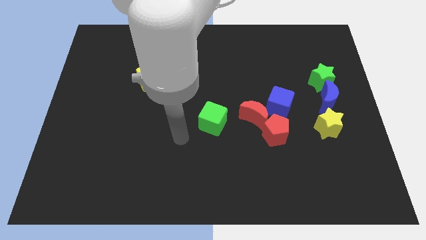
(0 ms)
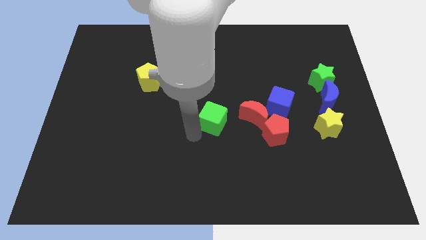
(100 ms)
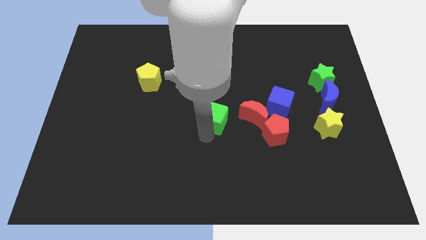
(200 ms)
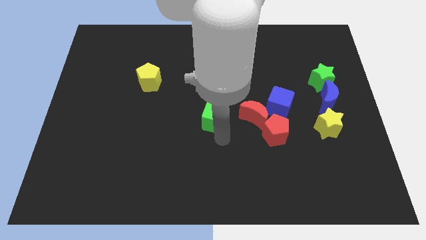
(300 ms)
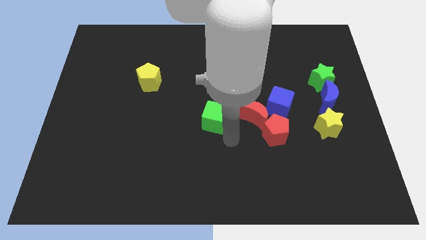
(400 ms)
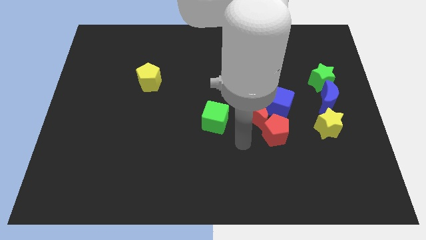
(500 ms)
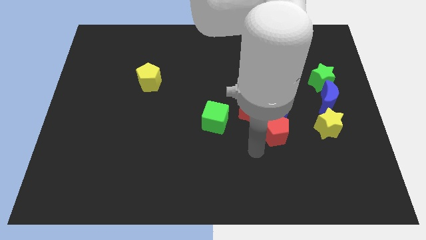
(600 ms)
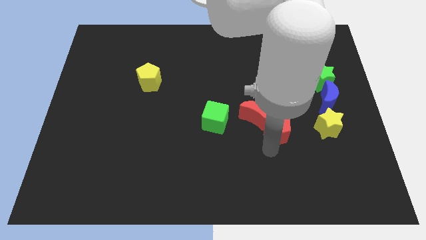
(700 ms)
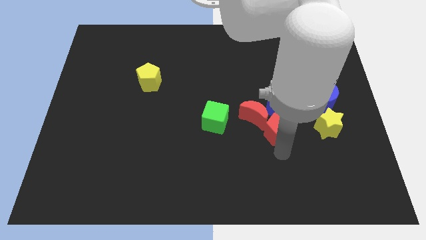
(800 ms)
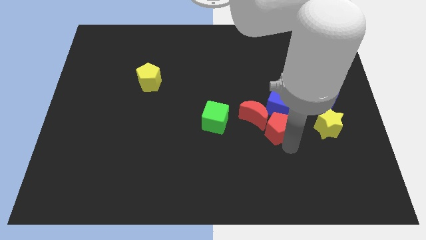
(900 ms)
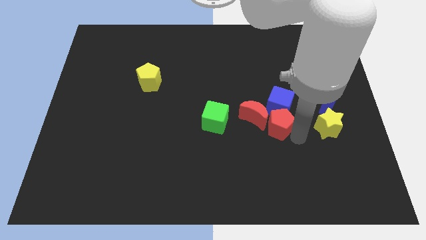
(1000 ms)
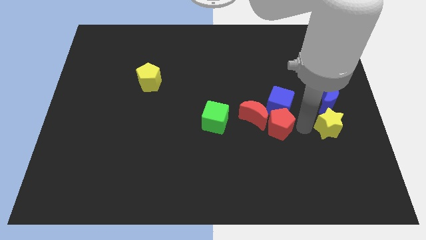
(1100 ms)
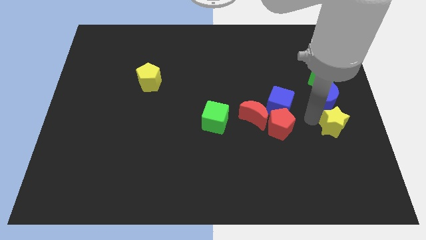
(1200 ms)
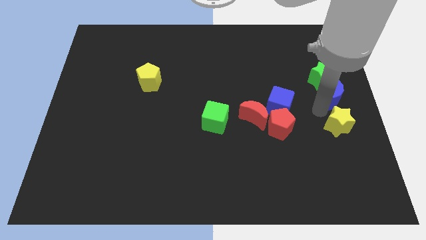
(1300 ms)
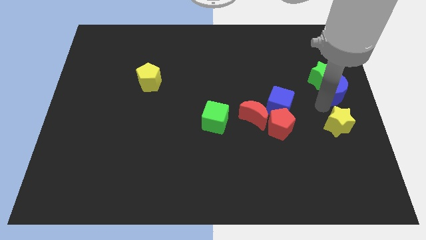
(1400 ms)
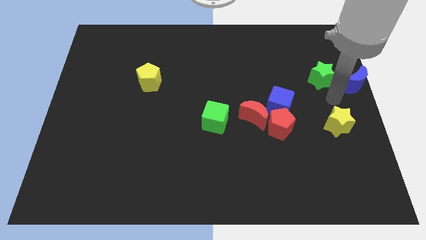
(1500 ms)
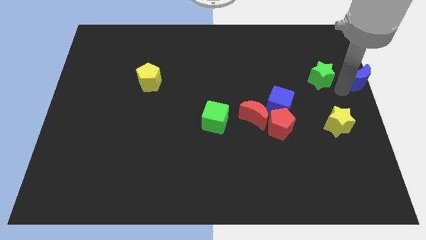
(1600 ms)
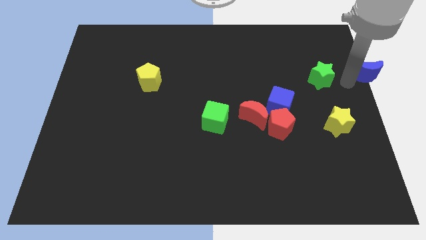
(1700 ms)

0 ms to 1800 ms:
separate the green star from the blue moon

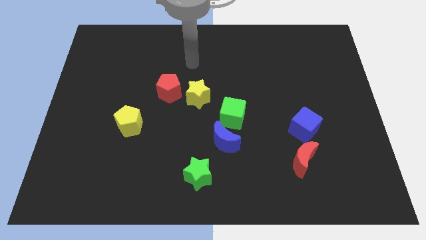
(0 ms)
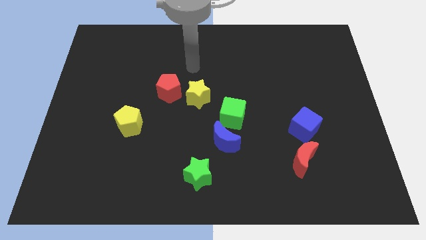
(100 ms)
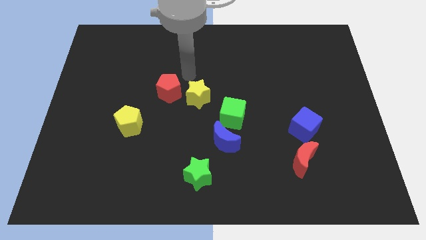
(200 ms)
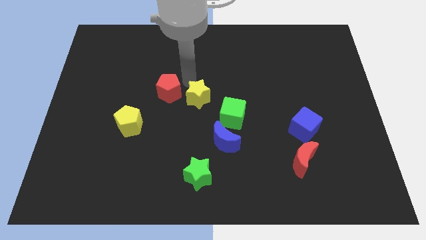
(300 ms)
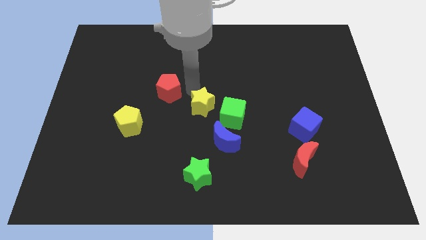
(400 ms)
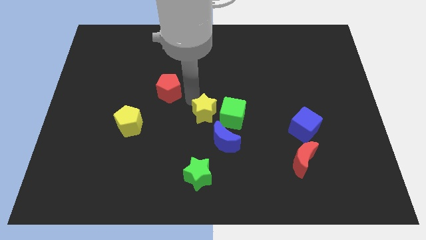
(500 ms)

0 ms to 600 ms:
pull the red pentagon apart from the yellow star

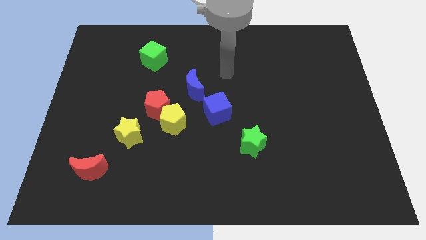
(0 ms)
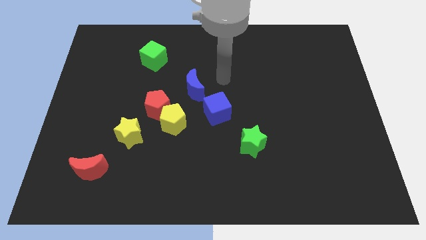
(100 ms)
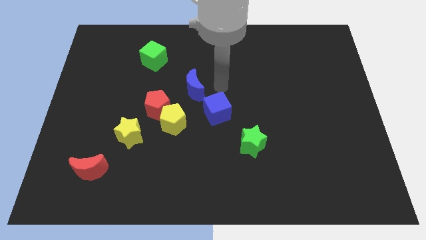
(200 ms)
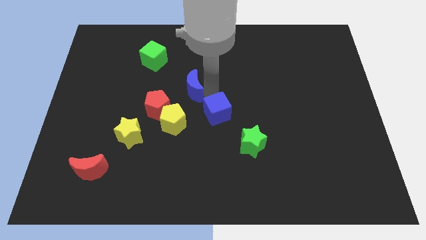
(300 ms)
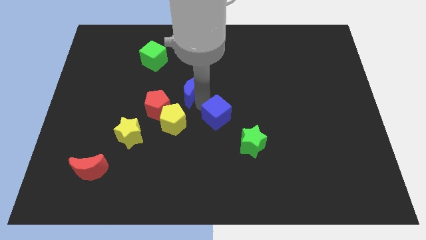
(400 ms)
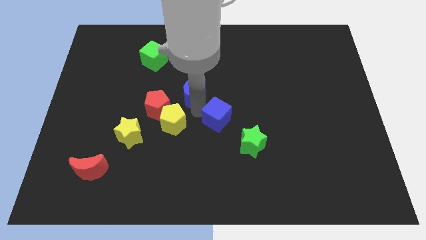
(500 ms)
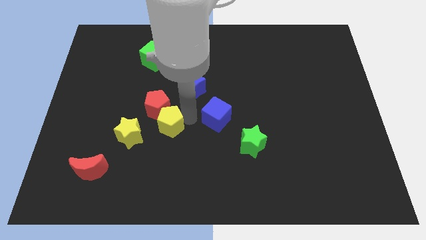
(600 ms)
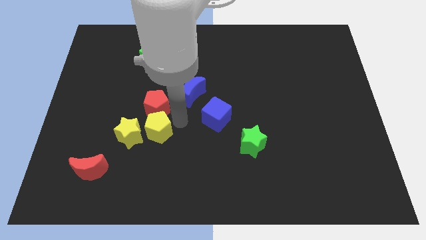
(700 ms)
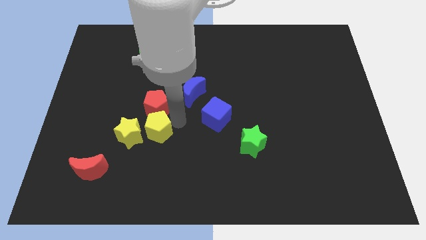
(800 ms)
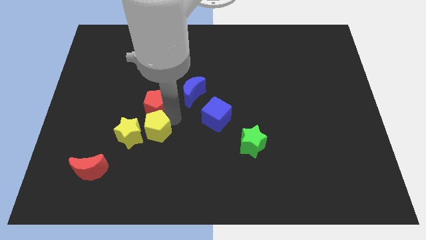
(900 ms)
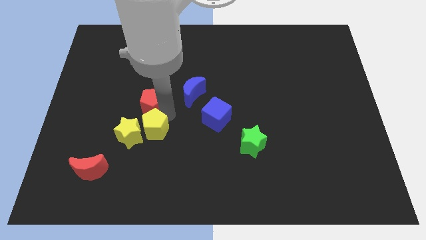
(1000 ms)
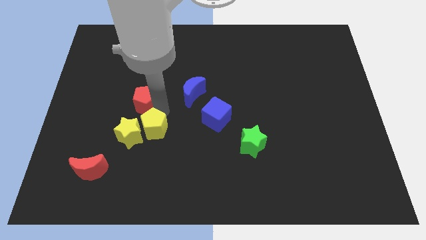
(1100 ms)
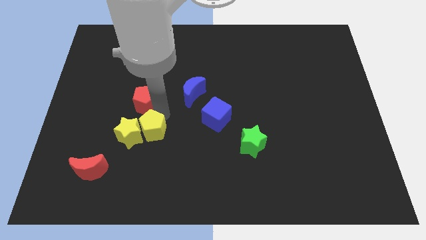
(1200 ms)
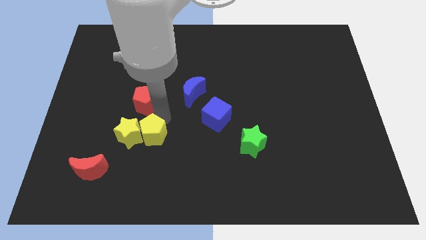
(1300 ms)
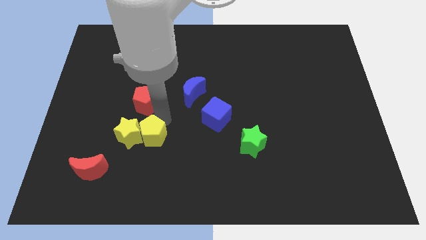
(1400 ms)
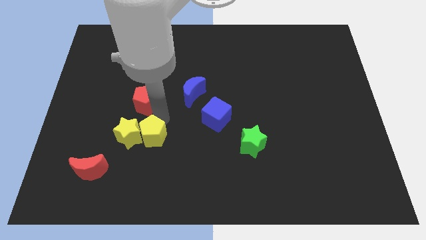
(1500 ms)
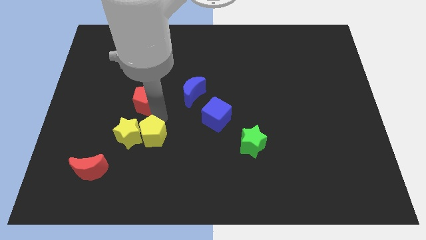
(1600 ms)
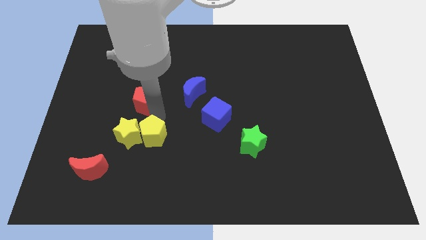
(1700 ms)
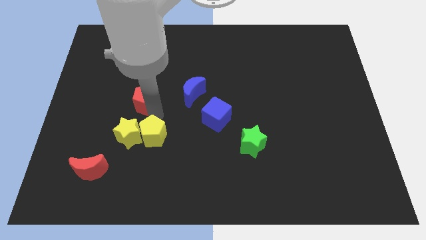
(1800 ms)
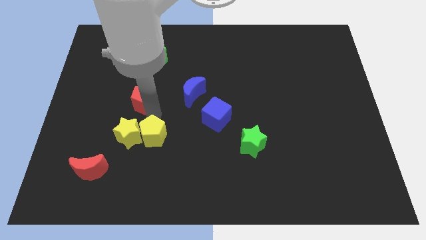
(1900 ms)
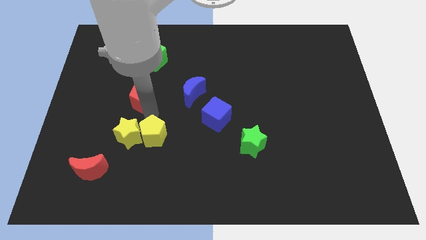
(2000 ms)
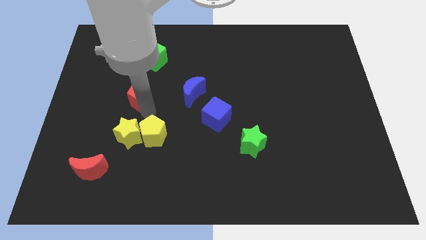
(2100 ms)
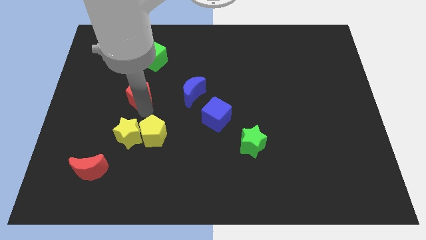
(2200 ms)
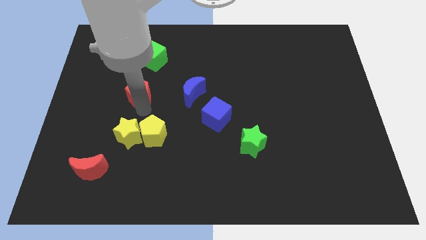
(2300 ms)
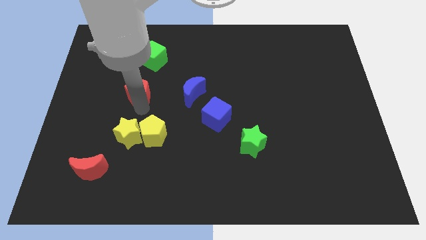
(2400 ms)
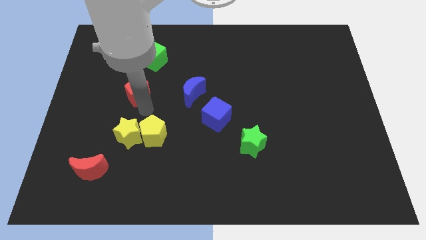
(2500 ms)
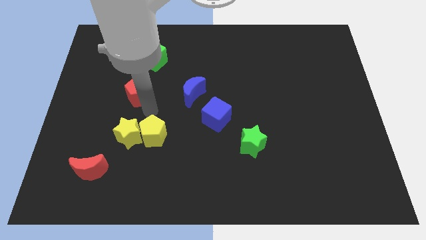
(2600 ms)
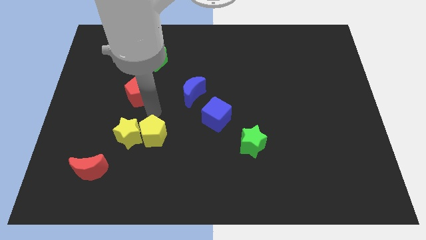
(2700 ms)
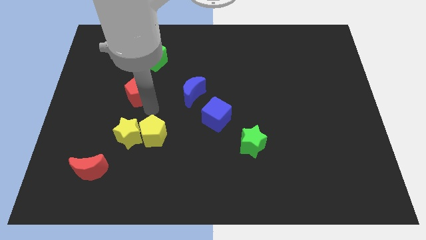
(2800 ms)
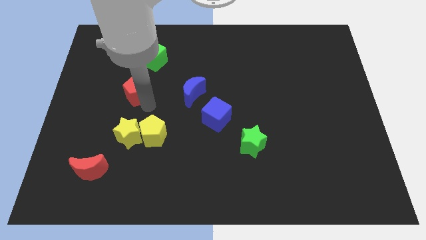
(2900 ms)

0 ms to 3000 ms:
move the red pentagon away from the clump

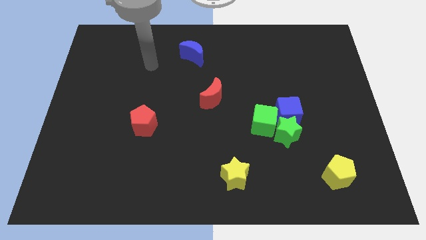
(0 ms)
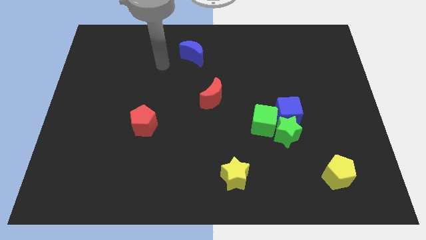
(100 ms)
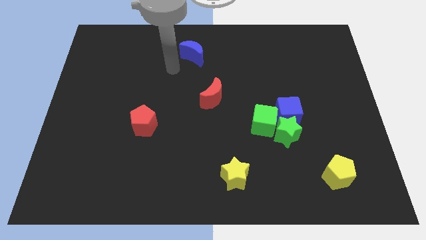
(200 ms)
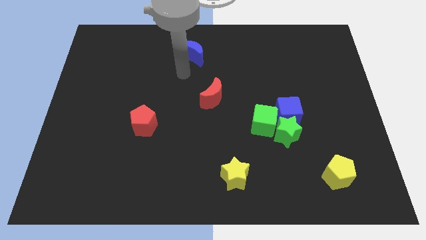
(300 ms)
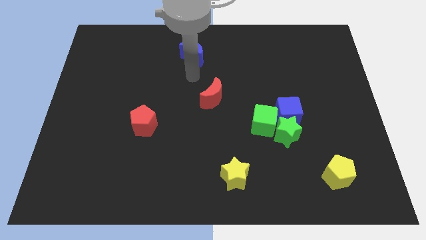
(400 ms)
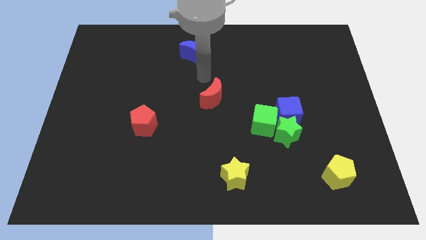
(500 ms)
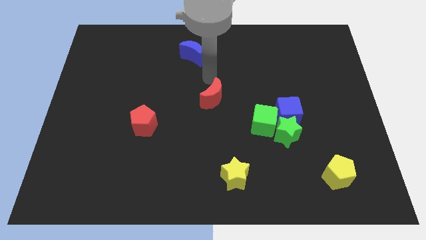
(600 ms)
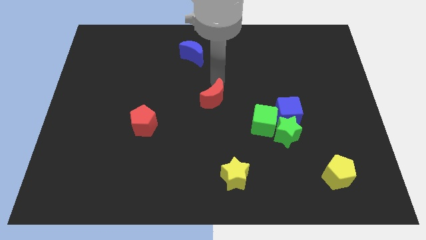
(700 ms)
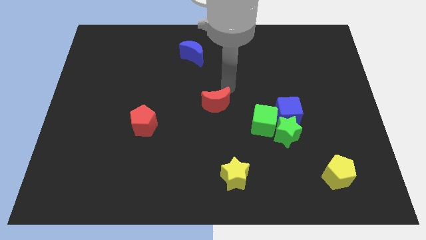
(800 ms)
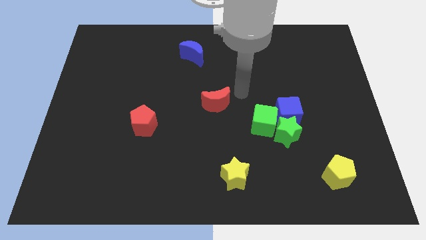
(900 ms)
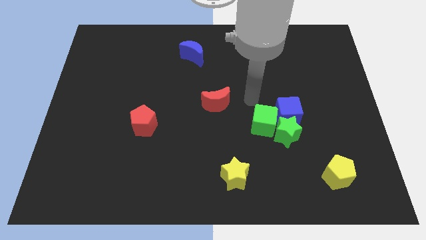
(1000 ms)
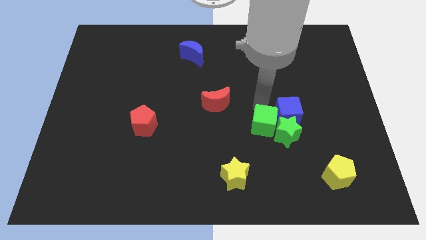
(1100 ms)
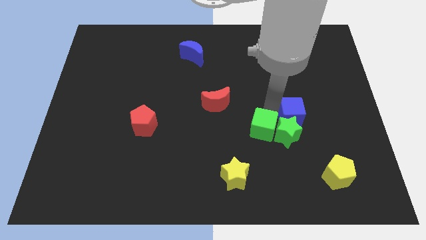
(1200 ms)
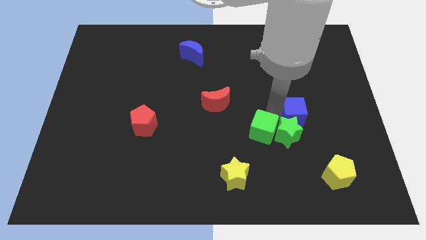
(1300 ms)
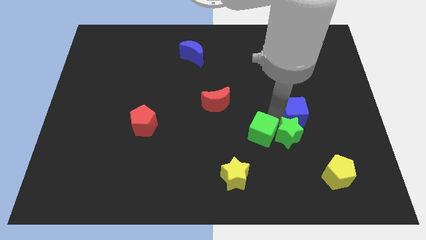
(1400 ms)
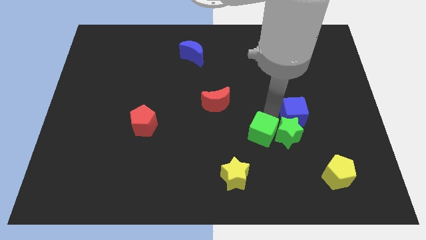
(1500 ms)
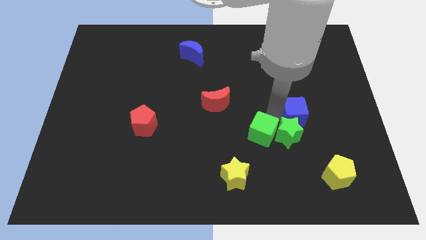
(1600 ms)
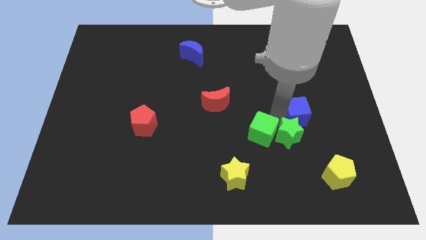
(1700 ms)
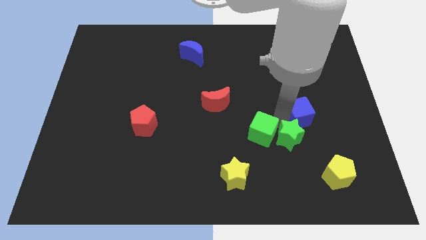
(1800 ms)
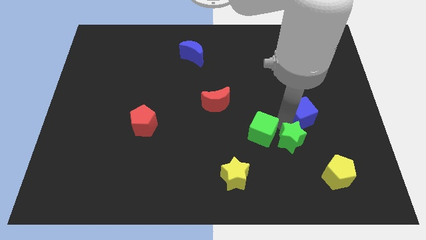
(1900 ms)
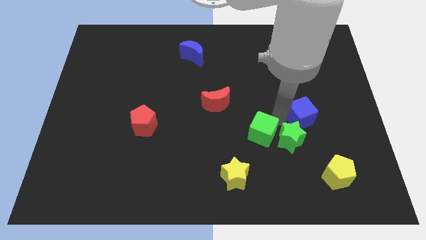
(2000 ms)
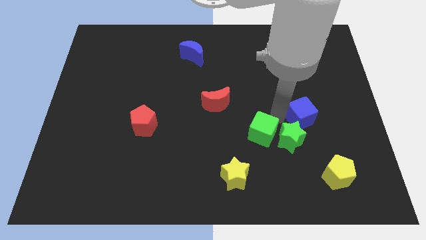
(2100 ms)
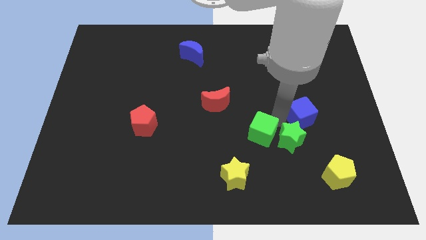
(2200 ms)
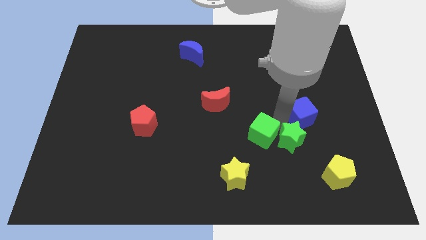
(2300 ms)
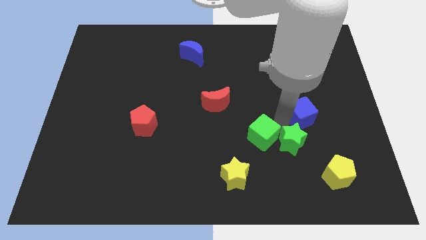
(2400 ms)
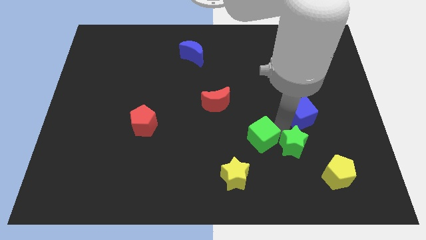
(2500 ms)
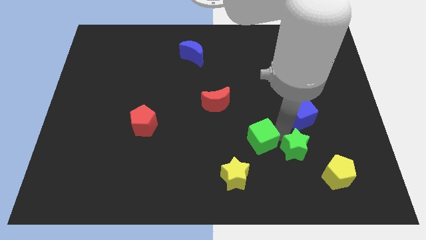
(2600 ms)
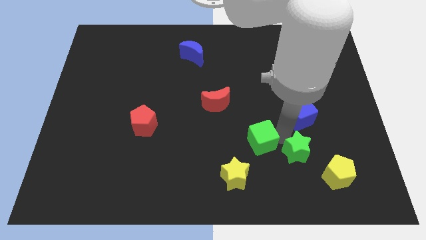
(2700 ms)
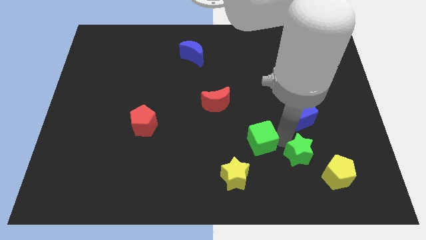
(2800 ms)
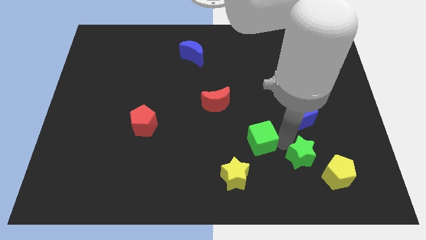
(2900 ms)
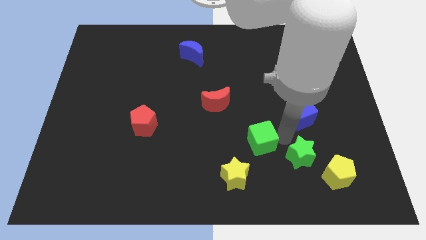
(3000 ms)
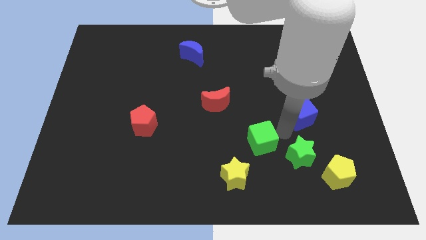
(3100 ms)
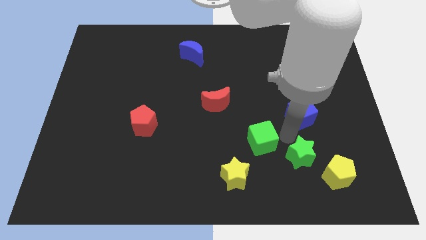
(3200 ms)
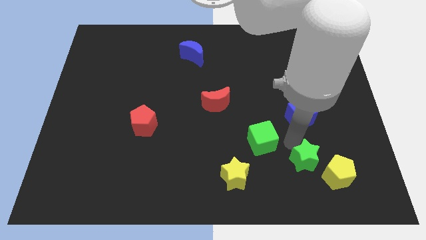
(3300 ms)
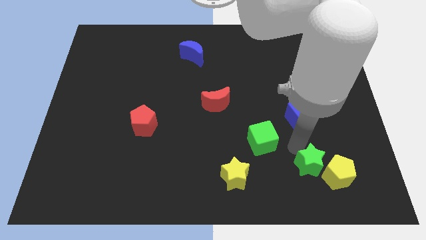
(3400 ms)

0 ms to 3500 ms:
pull the green star apart from the blue cube and green cube

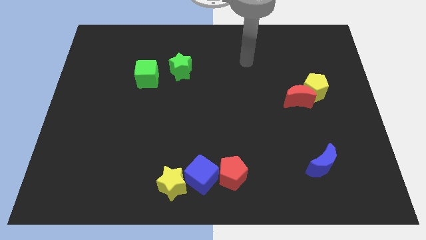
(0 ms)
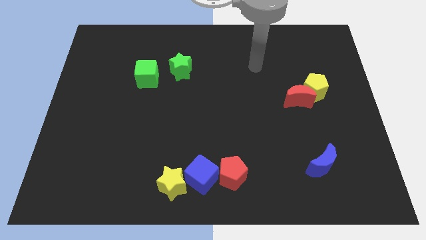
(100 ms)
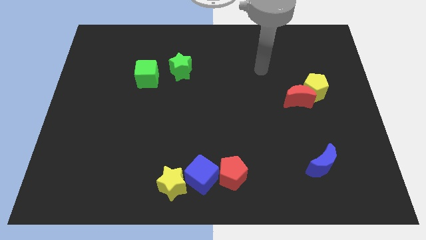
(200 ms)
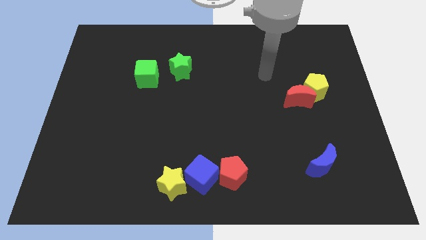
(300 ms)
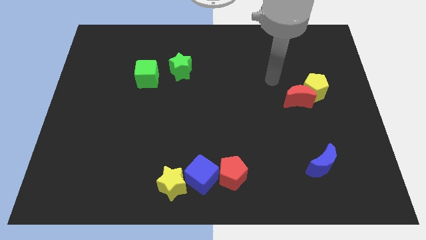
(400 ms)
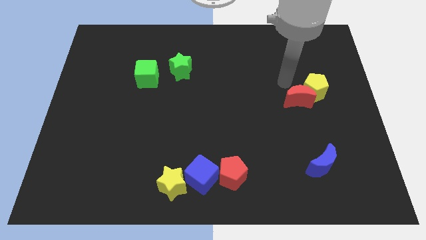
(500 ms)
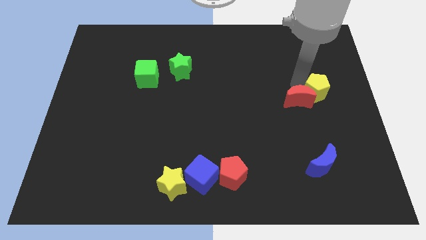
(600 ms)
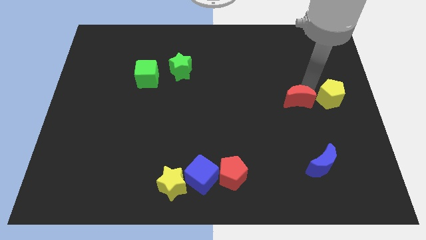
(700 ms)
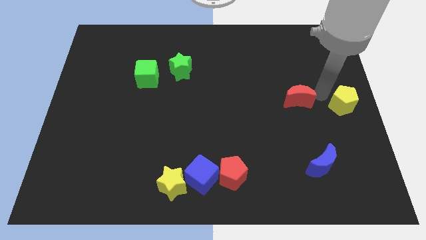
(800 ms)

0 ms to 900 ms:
pull the red moon apart from the yellow pentagon
